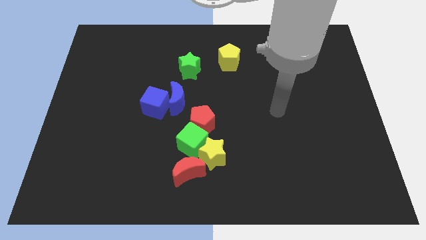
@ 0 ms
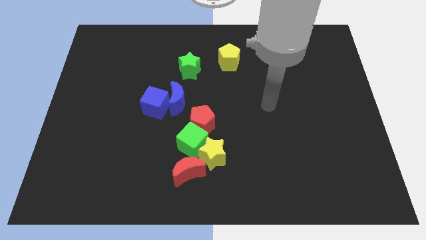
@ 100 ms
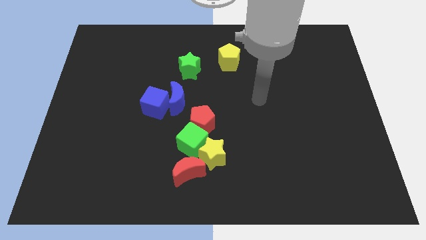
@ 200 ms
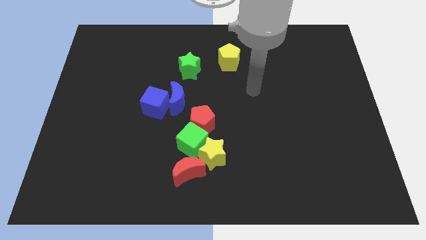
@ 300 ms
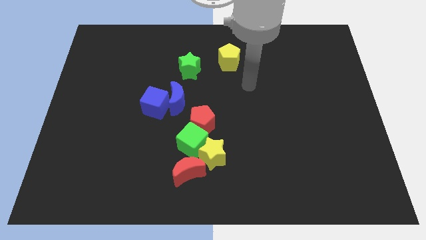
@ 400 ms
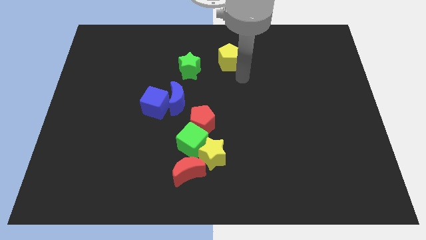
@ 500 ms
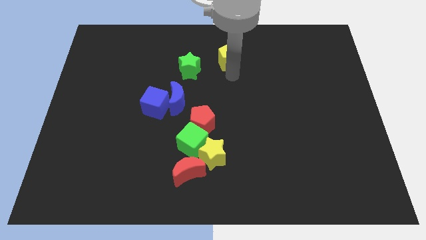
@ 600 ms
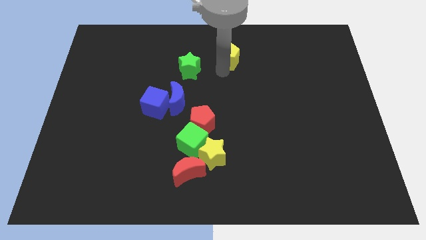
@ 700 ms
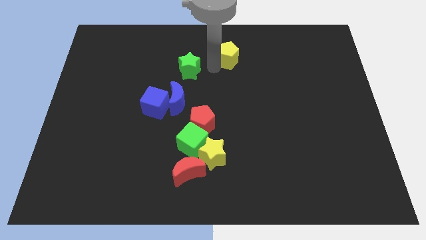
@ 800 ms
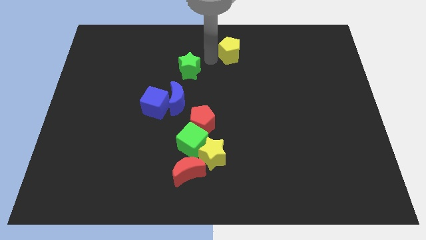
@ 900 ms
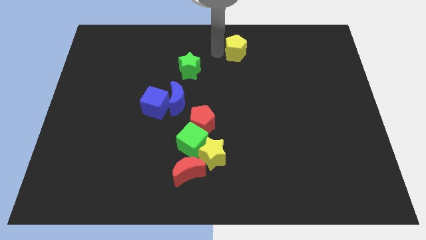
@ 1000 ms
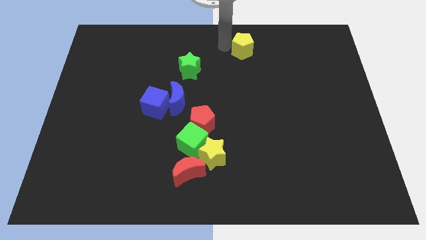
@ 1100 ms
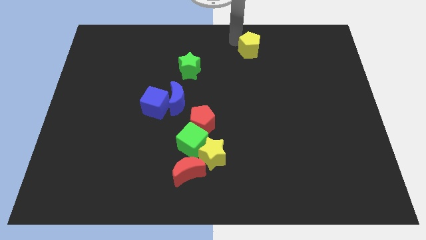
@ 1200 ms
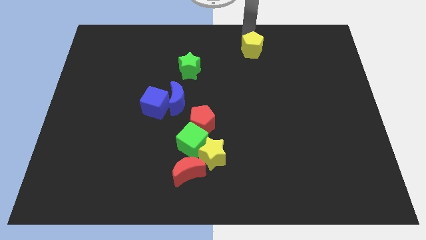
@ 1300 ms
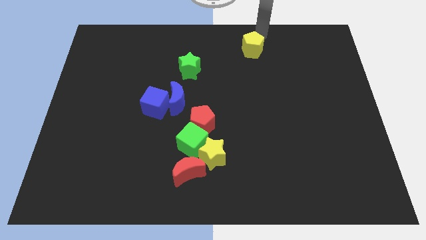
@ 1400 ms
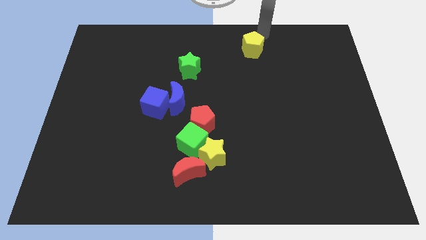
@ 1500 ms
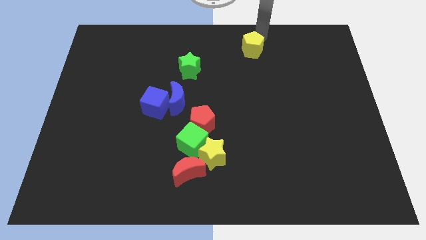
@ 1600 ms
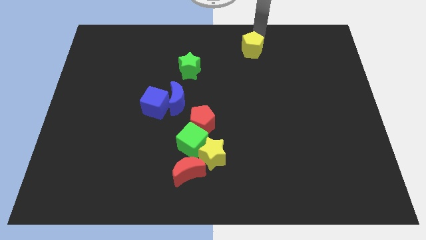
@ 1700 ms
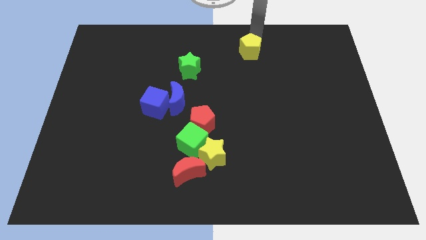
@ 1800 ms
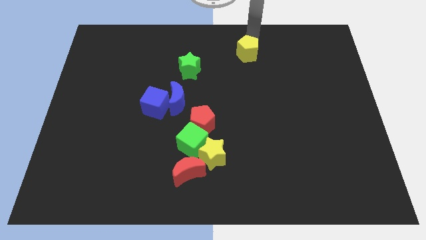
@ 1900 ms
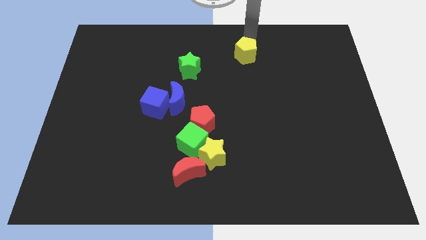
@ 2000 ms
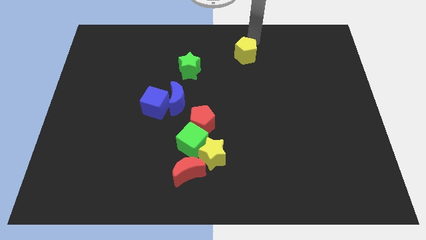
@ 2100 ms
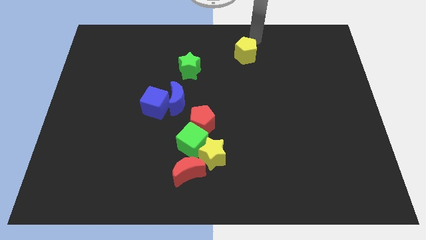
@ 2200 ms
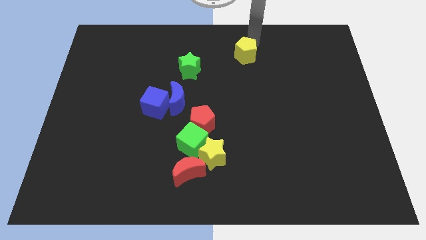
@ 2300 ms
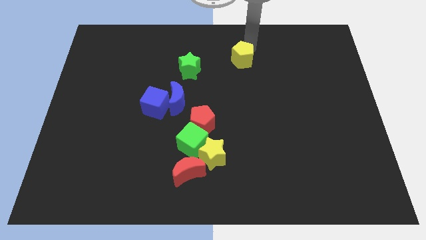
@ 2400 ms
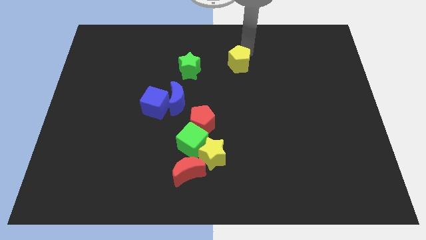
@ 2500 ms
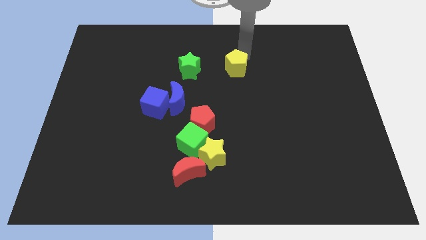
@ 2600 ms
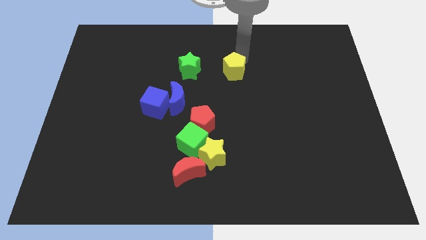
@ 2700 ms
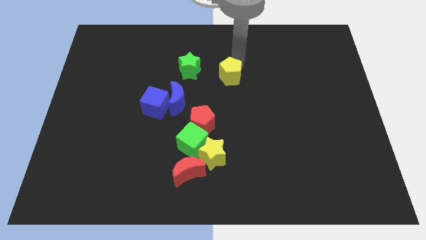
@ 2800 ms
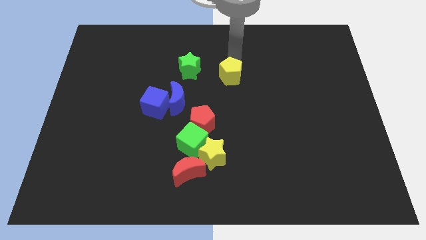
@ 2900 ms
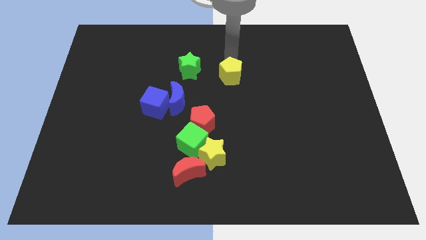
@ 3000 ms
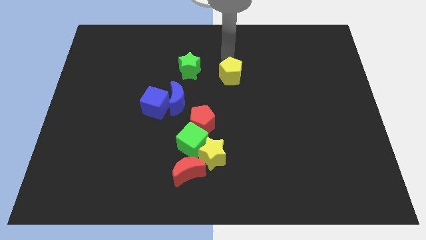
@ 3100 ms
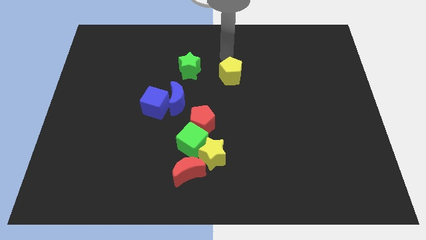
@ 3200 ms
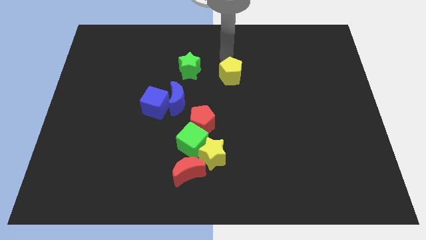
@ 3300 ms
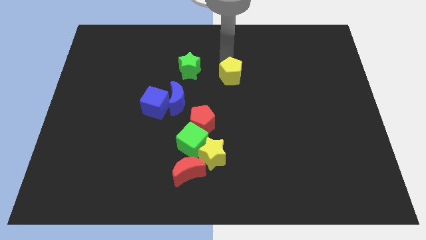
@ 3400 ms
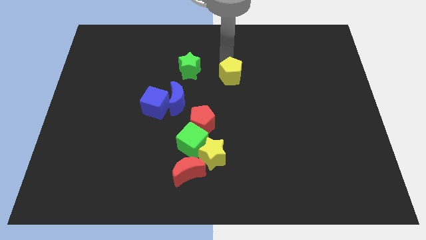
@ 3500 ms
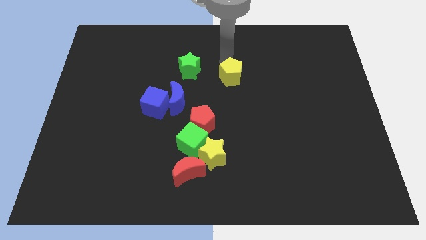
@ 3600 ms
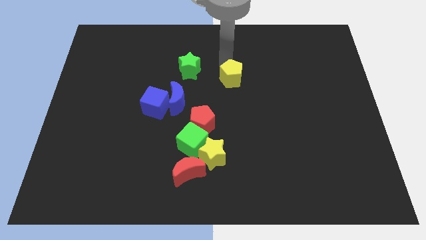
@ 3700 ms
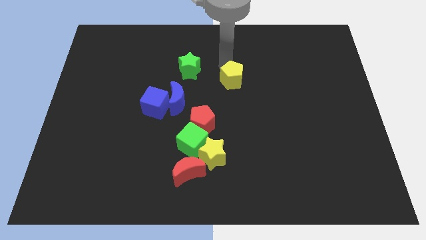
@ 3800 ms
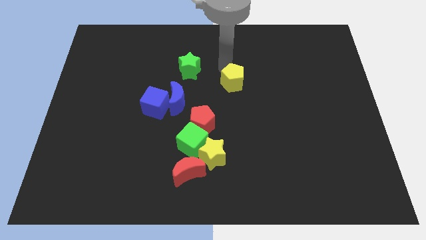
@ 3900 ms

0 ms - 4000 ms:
push the yellow pentagon downwards a bit

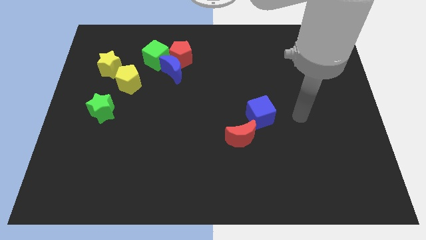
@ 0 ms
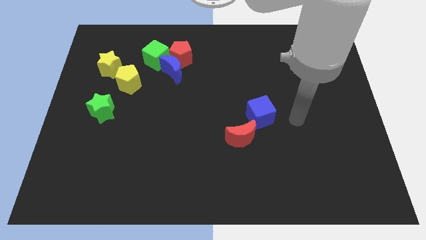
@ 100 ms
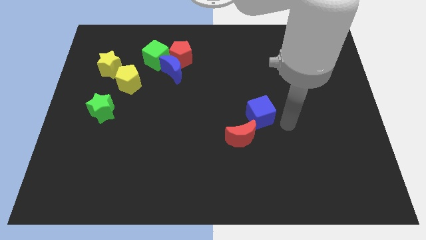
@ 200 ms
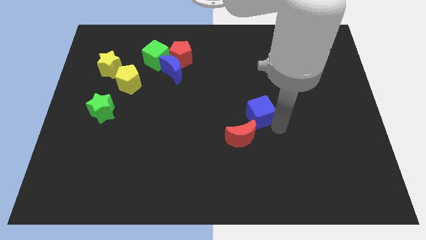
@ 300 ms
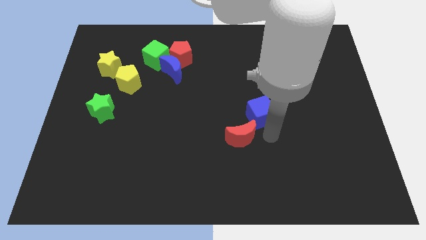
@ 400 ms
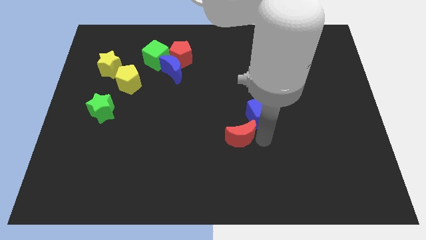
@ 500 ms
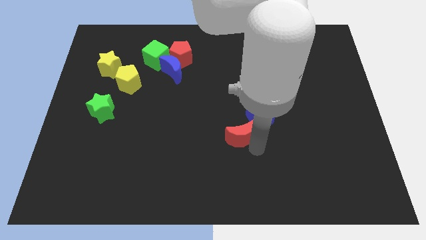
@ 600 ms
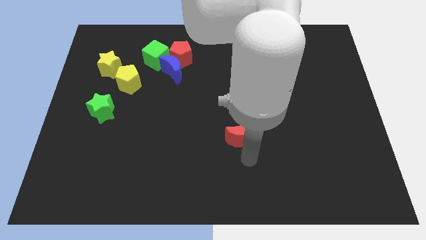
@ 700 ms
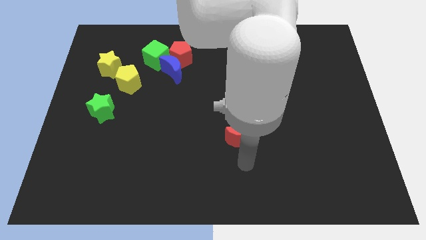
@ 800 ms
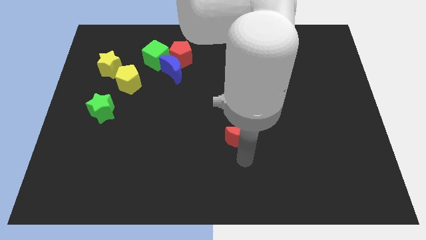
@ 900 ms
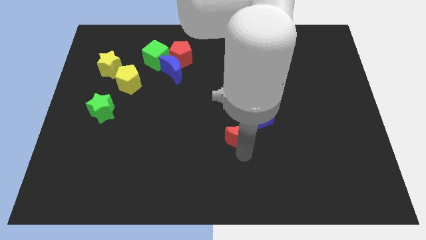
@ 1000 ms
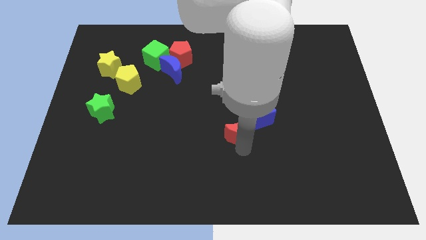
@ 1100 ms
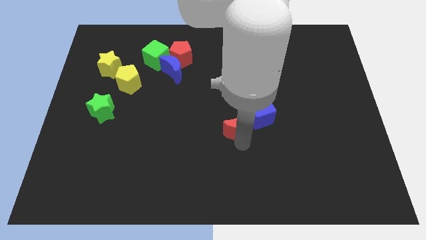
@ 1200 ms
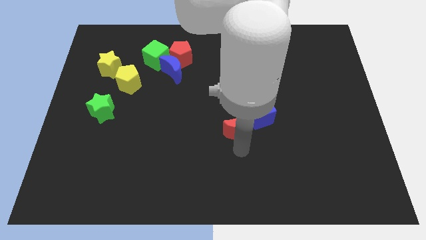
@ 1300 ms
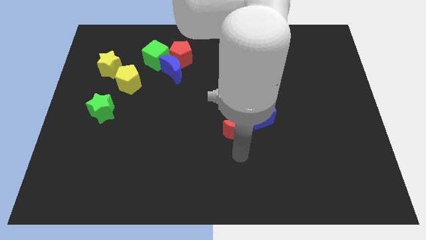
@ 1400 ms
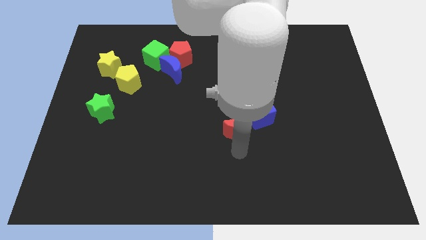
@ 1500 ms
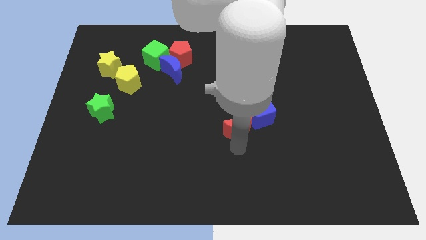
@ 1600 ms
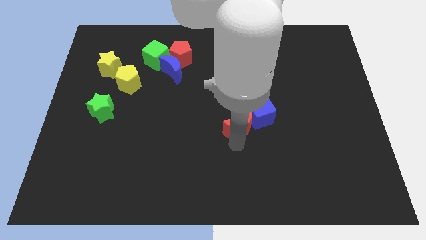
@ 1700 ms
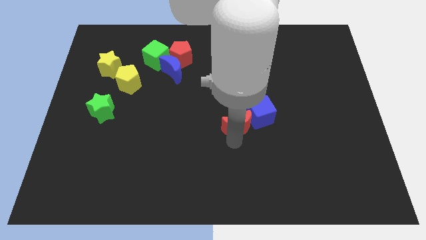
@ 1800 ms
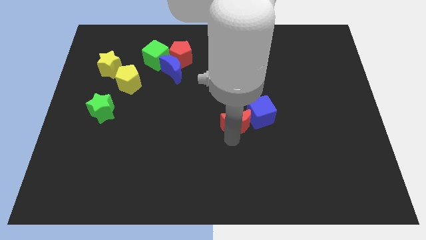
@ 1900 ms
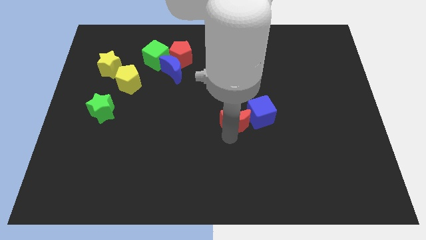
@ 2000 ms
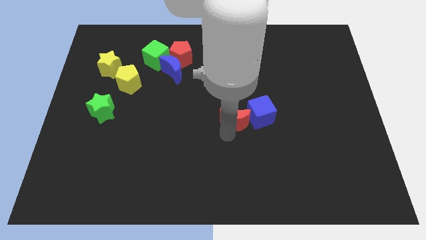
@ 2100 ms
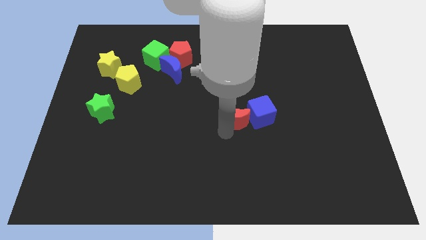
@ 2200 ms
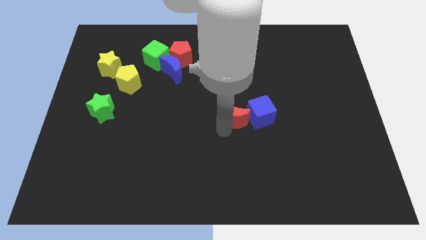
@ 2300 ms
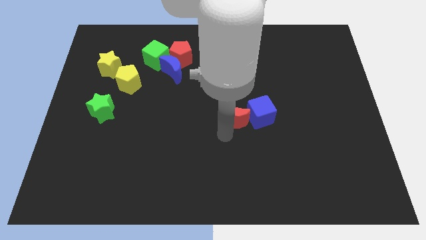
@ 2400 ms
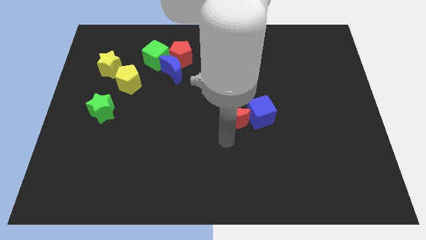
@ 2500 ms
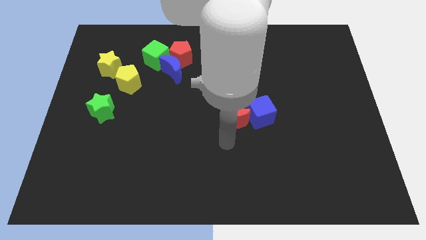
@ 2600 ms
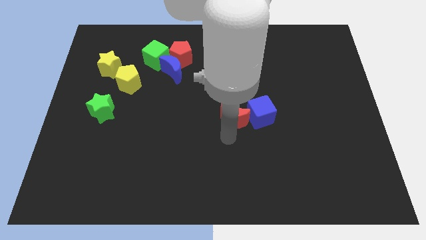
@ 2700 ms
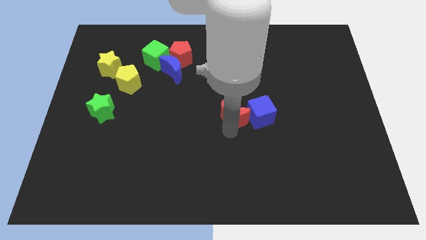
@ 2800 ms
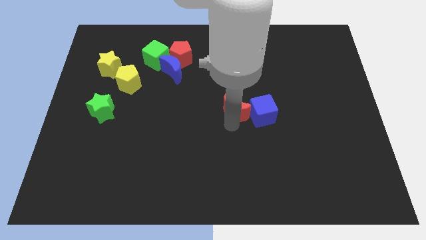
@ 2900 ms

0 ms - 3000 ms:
slightly move the red moon up

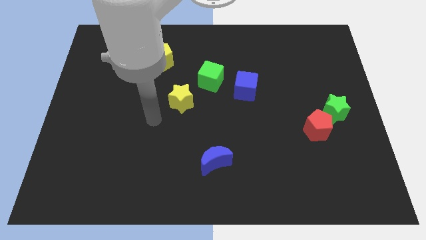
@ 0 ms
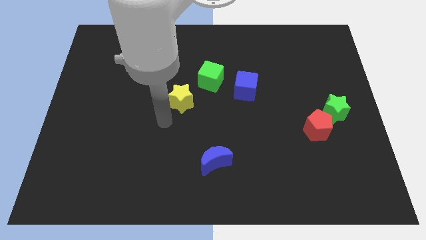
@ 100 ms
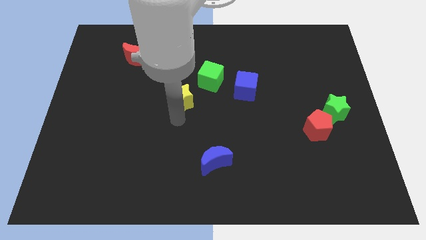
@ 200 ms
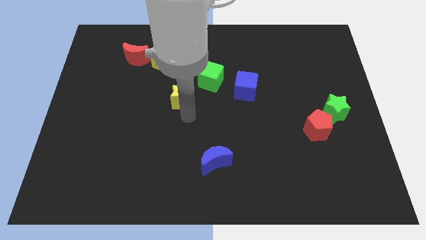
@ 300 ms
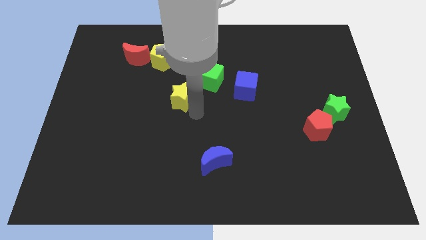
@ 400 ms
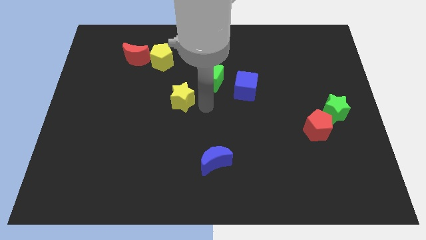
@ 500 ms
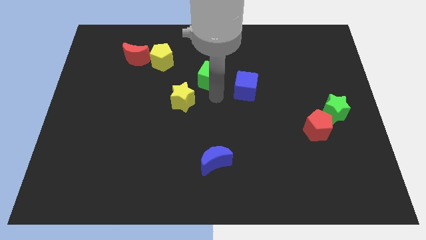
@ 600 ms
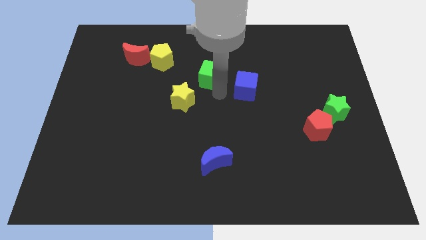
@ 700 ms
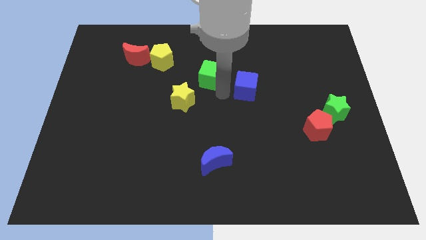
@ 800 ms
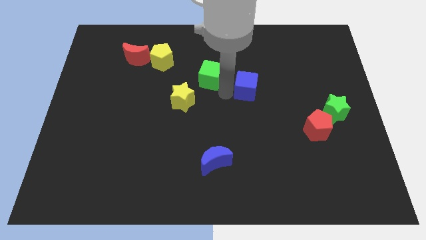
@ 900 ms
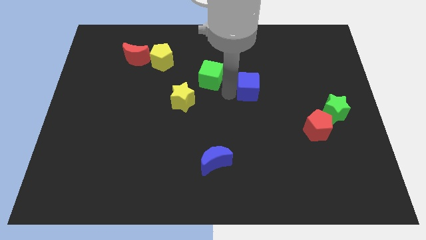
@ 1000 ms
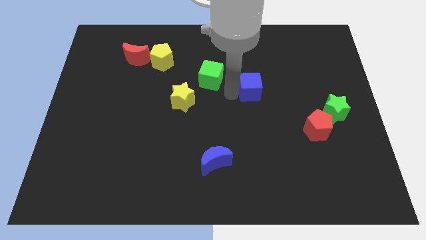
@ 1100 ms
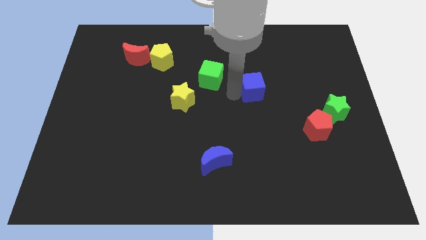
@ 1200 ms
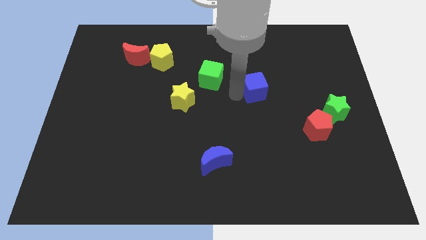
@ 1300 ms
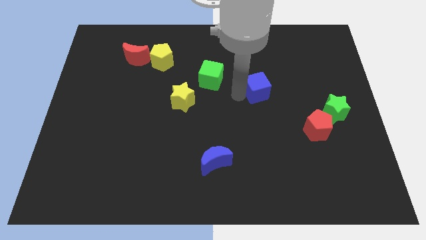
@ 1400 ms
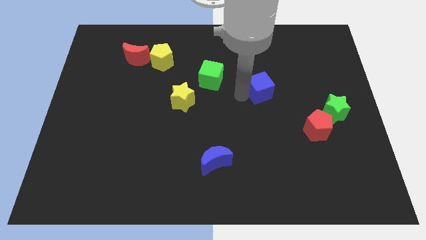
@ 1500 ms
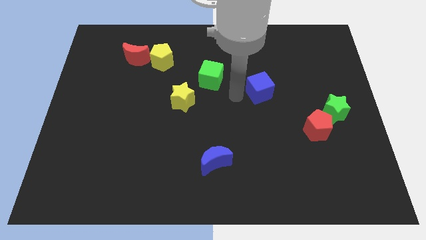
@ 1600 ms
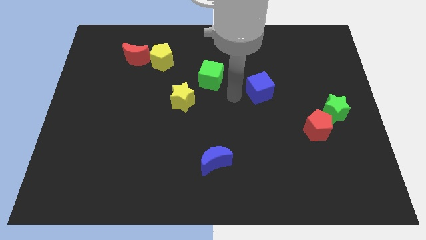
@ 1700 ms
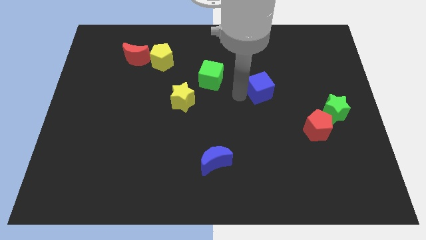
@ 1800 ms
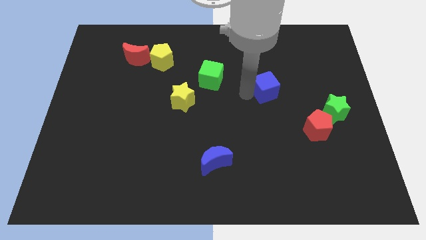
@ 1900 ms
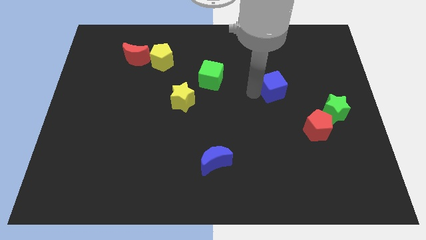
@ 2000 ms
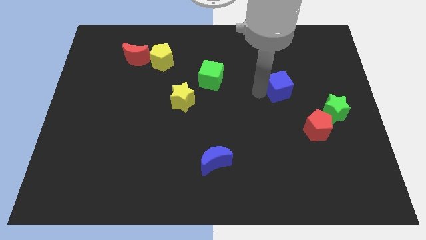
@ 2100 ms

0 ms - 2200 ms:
move the blue cube a little bit to the right
